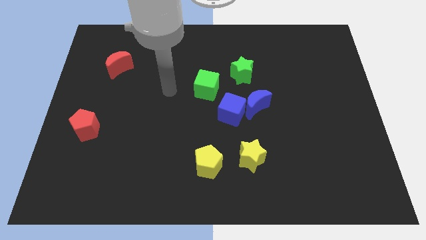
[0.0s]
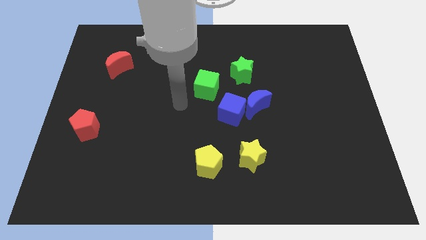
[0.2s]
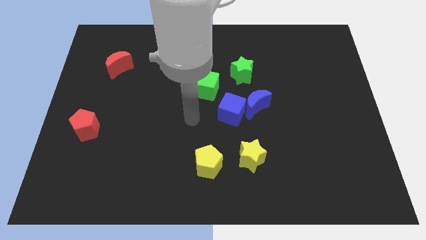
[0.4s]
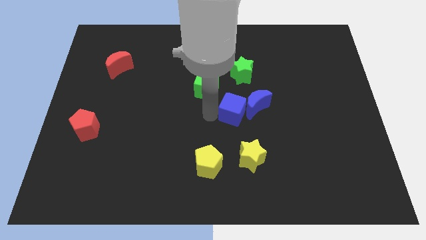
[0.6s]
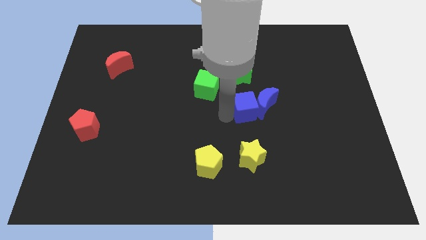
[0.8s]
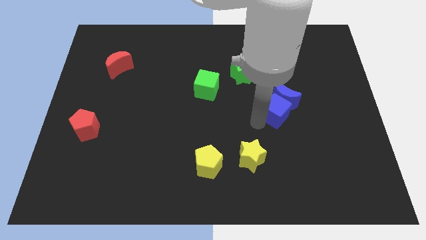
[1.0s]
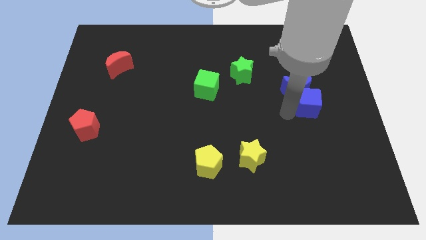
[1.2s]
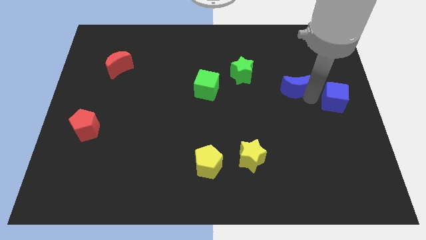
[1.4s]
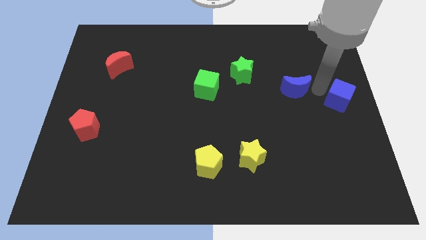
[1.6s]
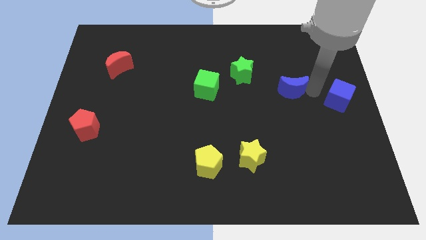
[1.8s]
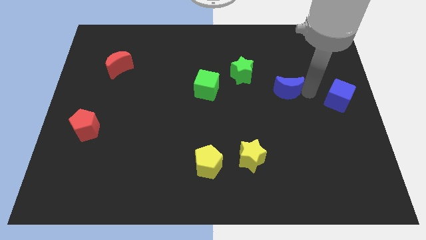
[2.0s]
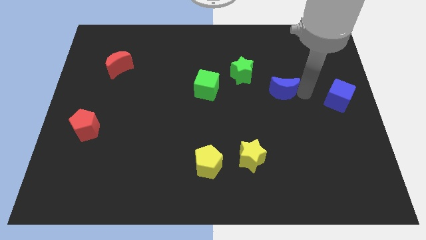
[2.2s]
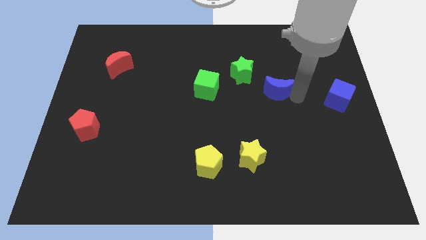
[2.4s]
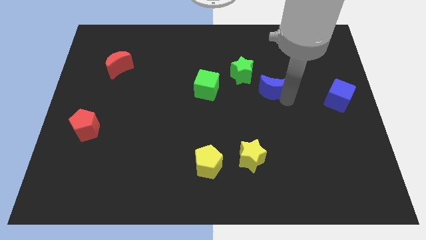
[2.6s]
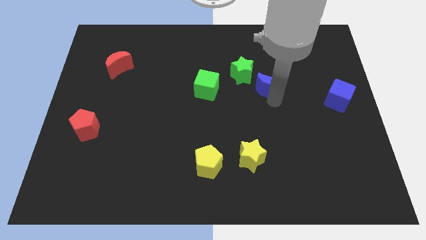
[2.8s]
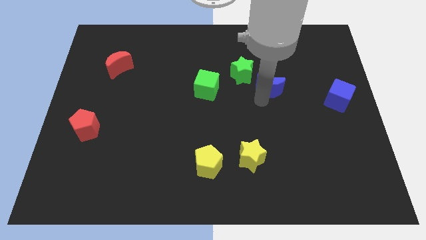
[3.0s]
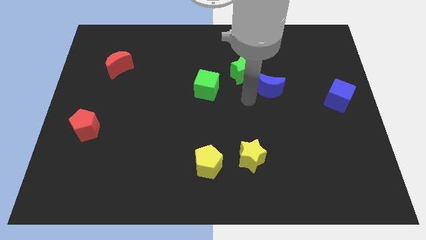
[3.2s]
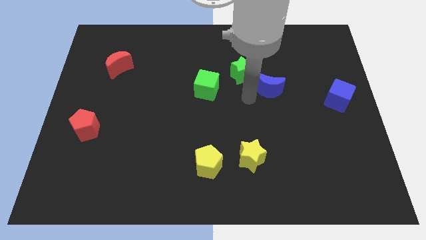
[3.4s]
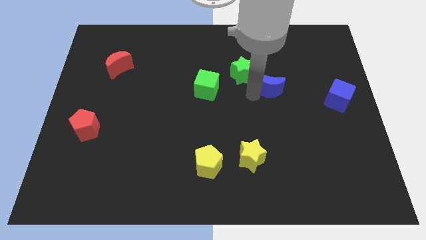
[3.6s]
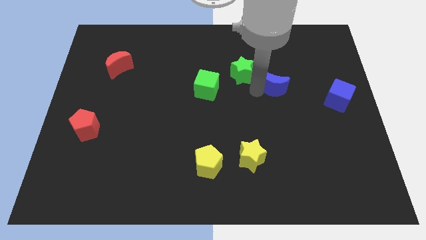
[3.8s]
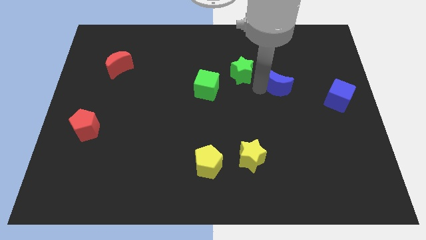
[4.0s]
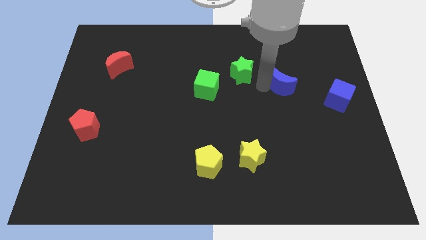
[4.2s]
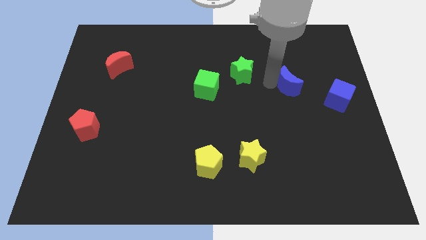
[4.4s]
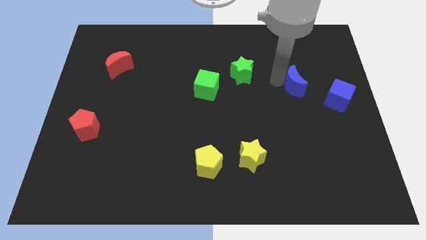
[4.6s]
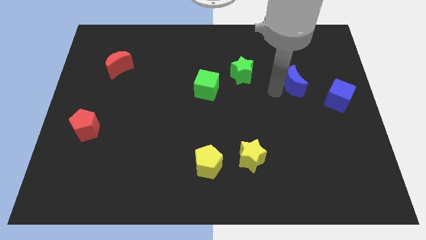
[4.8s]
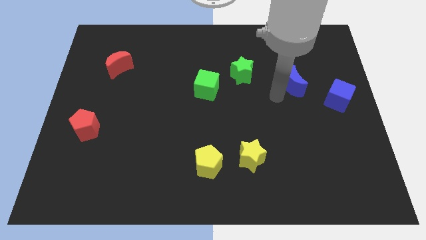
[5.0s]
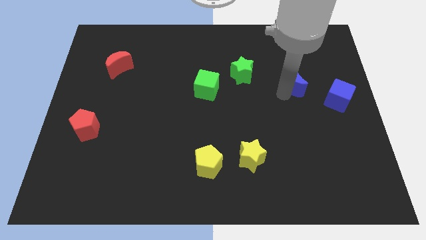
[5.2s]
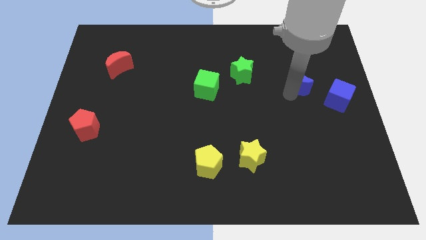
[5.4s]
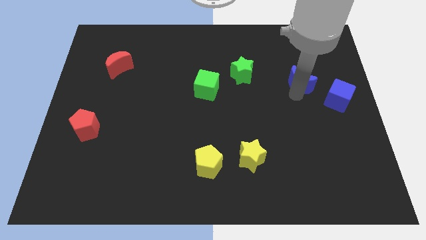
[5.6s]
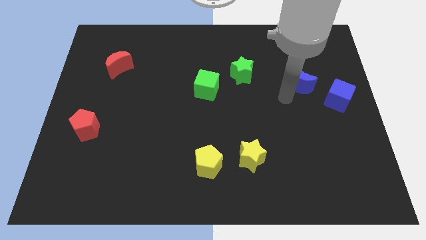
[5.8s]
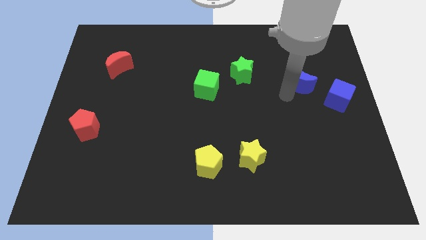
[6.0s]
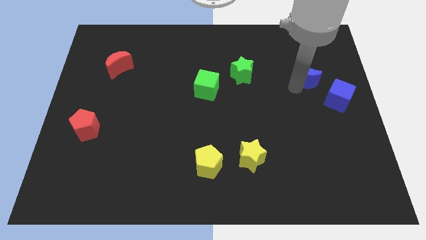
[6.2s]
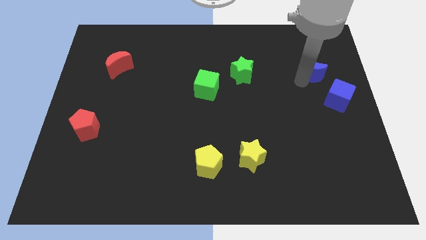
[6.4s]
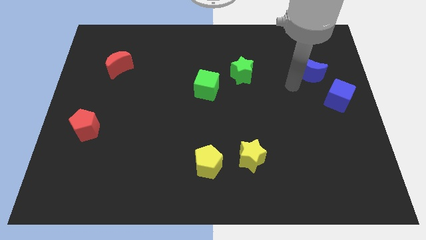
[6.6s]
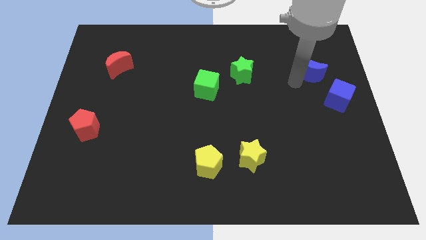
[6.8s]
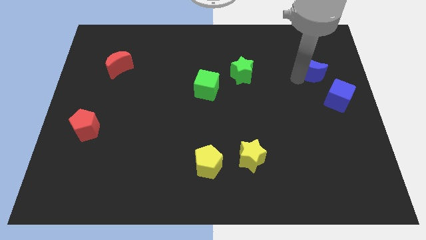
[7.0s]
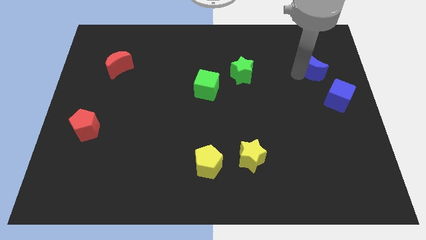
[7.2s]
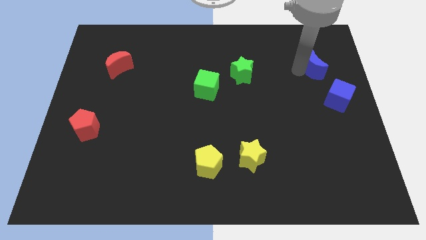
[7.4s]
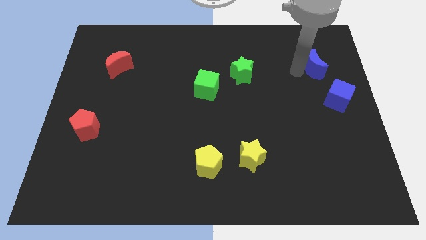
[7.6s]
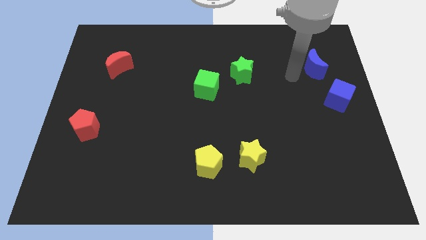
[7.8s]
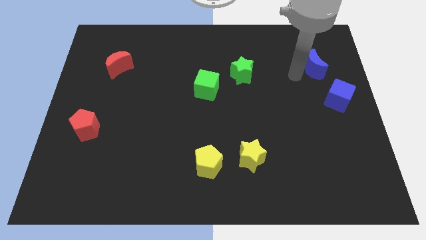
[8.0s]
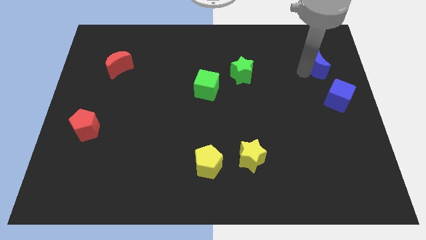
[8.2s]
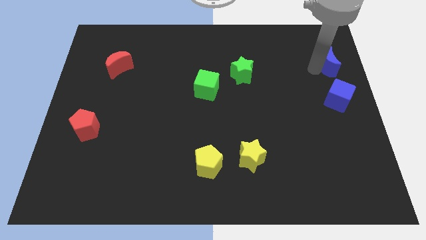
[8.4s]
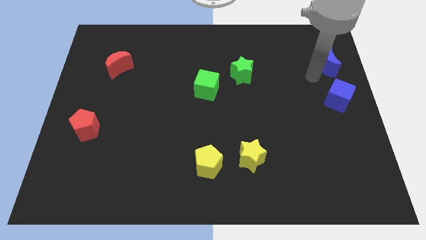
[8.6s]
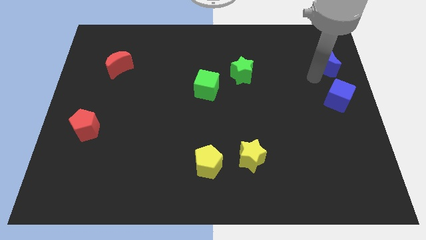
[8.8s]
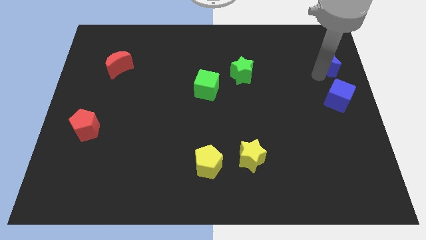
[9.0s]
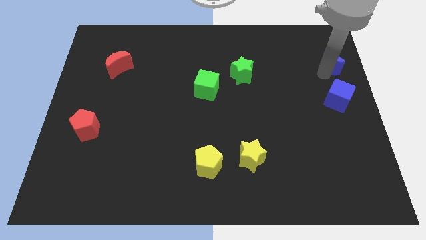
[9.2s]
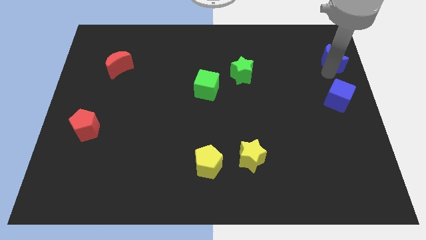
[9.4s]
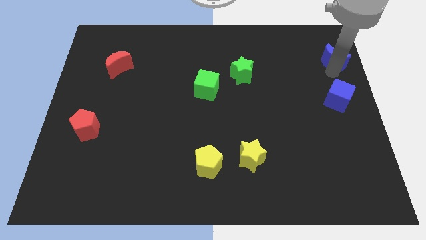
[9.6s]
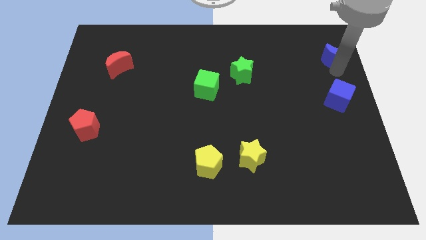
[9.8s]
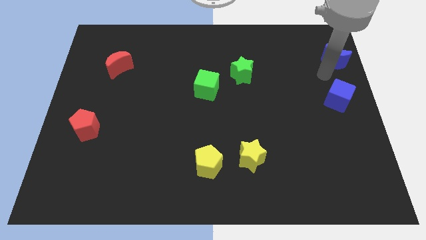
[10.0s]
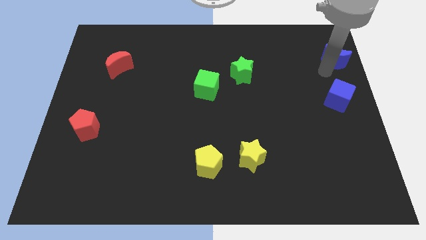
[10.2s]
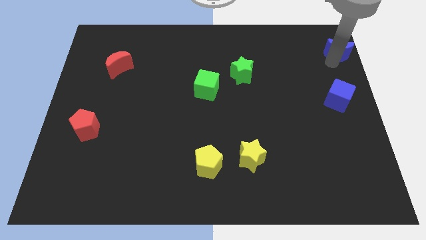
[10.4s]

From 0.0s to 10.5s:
slide the blue moon to the top right of the board

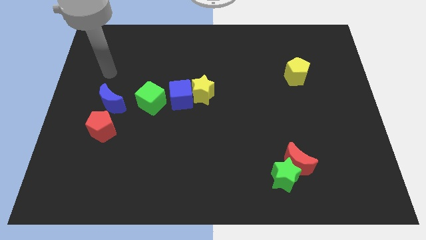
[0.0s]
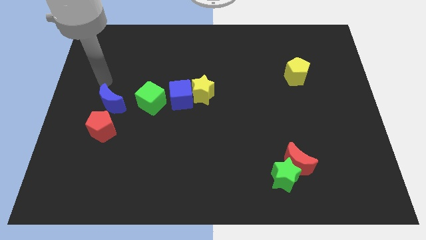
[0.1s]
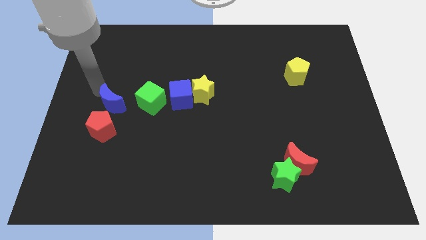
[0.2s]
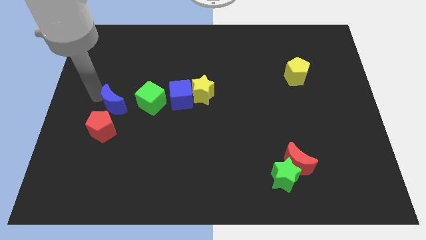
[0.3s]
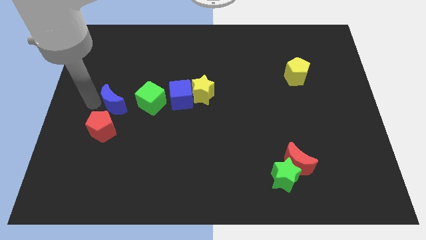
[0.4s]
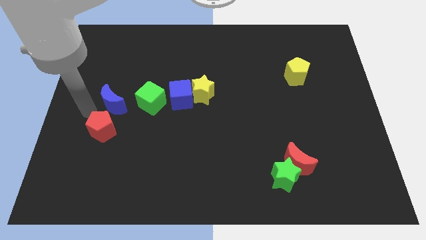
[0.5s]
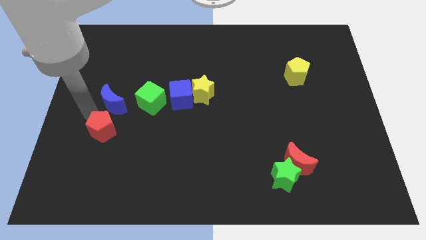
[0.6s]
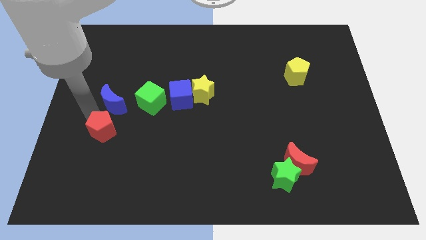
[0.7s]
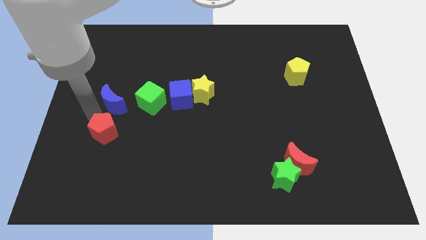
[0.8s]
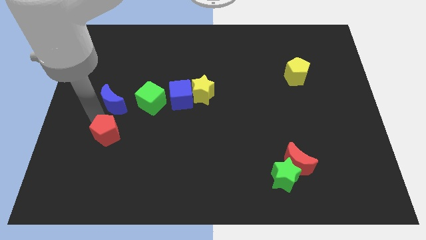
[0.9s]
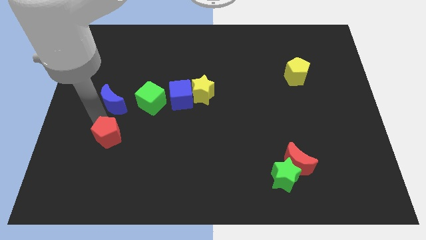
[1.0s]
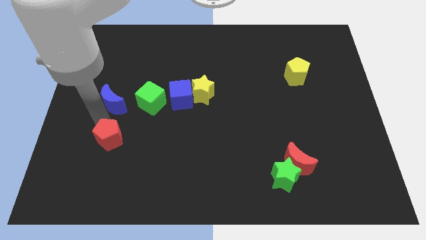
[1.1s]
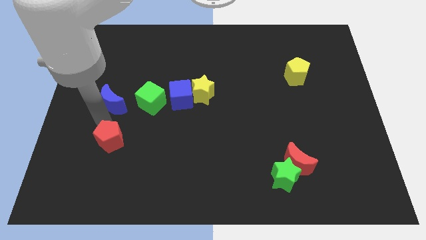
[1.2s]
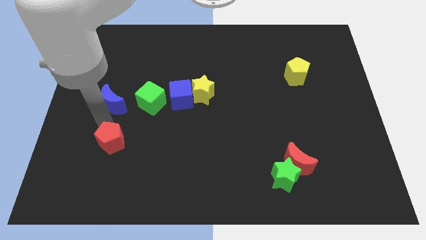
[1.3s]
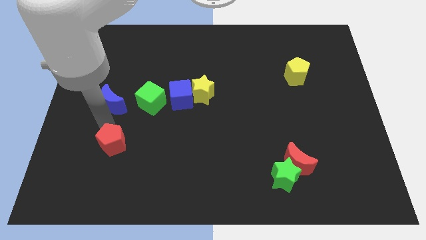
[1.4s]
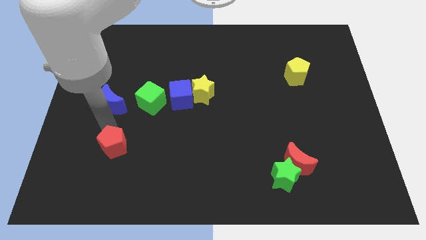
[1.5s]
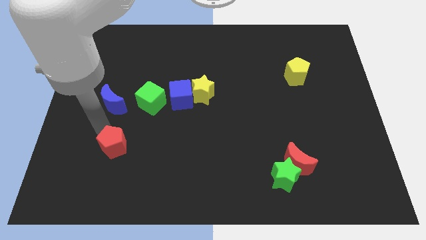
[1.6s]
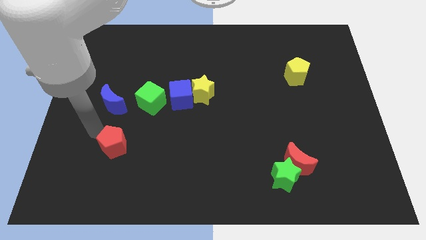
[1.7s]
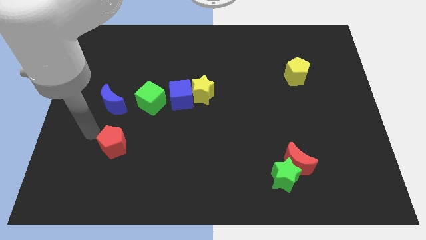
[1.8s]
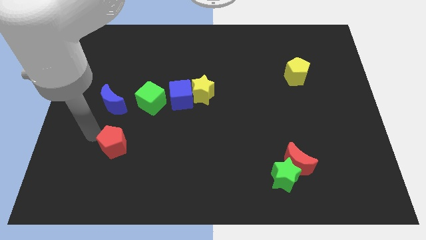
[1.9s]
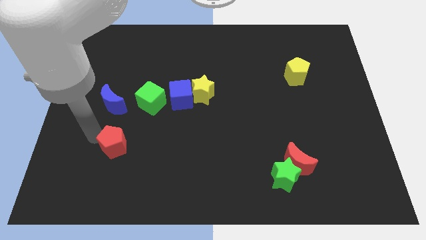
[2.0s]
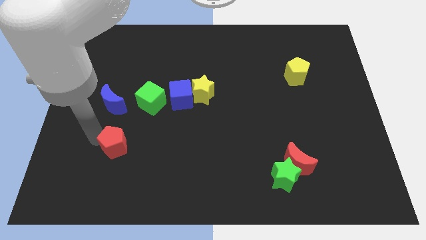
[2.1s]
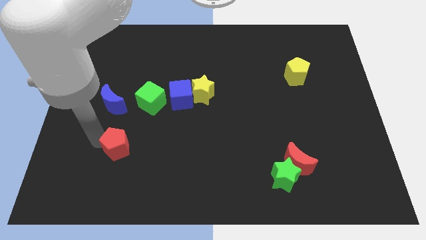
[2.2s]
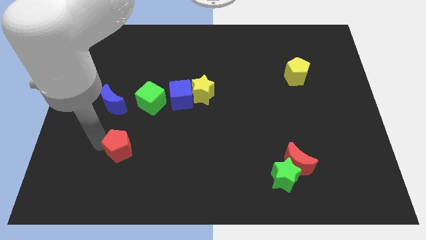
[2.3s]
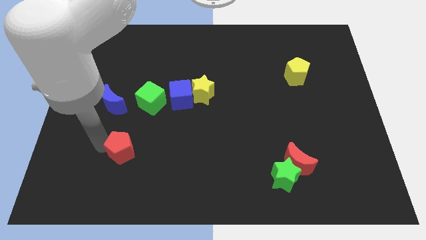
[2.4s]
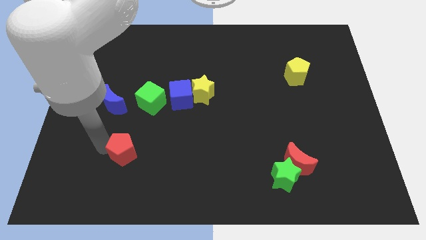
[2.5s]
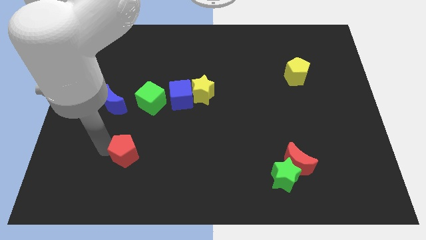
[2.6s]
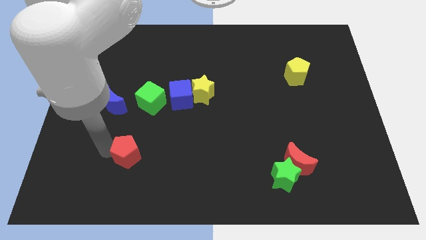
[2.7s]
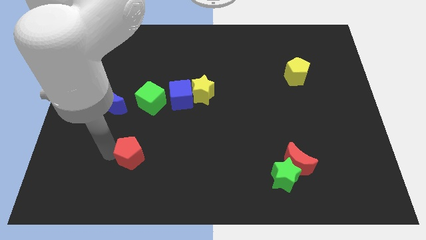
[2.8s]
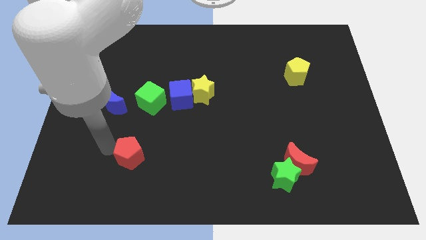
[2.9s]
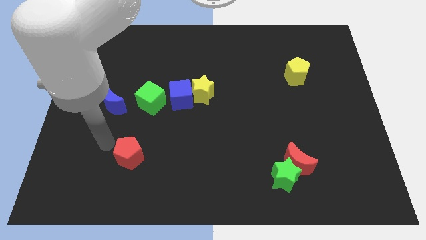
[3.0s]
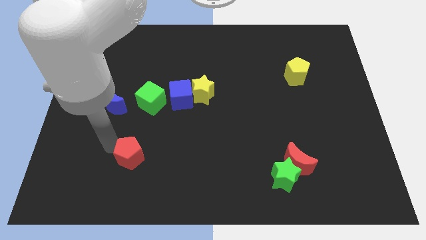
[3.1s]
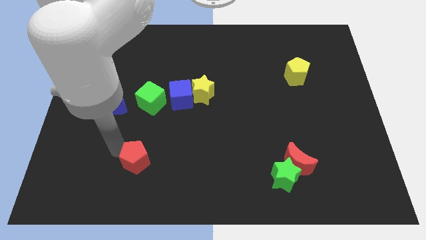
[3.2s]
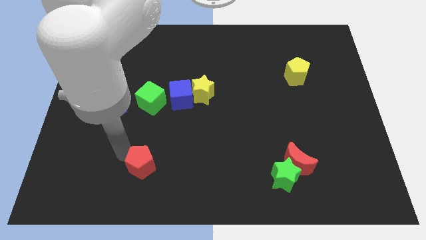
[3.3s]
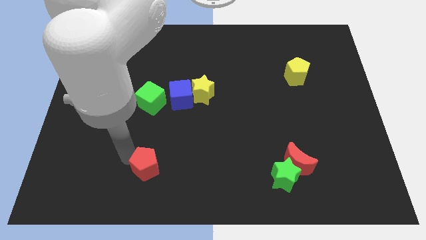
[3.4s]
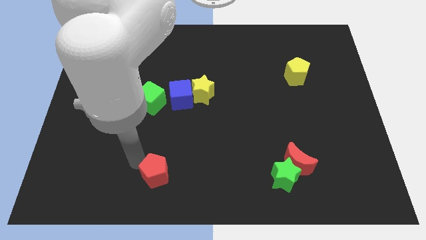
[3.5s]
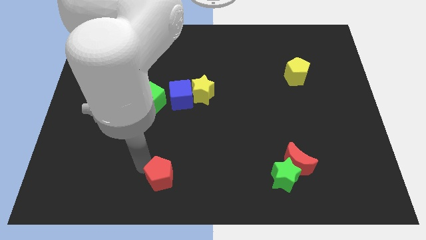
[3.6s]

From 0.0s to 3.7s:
push the red pentagon to the bottom
